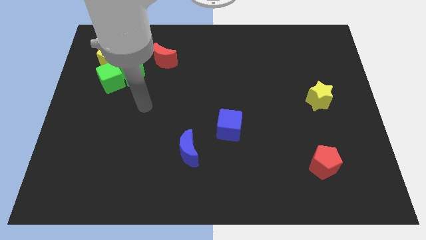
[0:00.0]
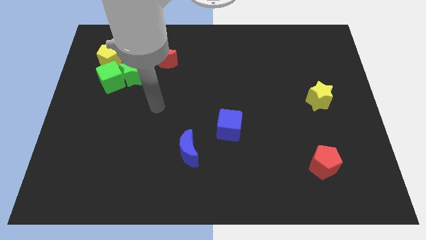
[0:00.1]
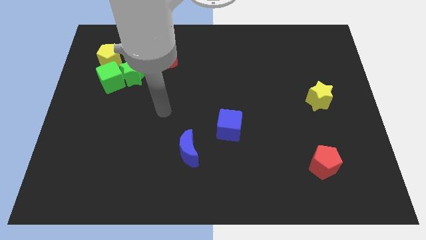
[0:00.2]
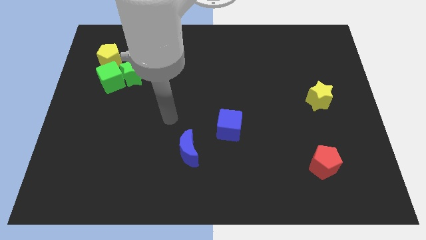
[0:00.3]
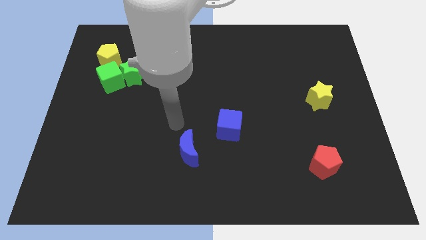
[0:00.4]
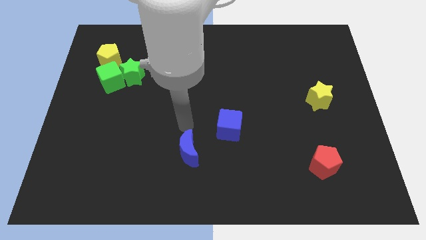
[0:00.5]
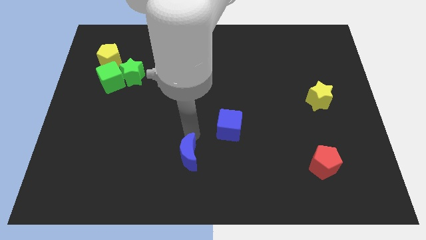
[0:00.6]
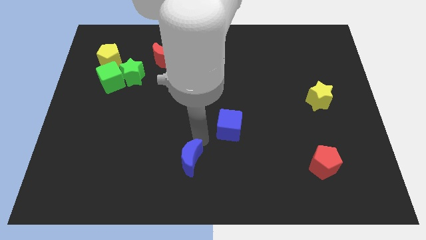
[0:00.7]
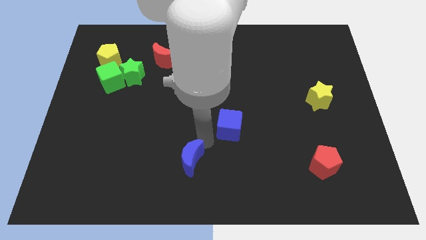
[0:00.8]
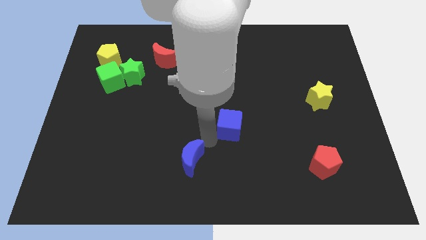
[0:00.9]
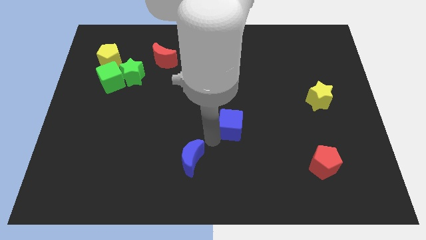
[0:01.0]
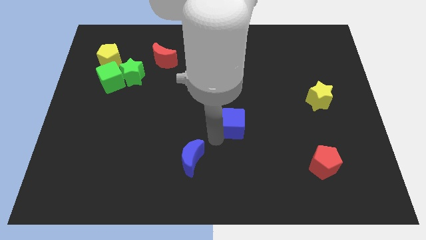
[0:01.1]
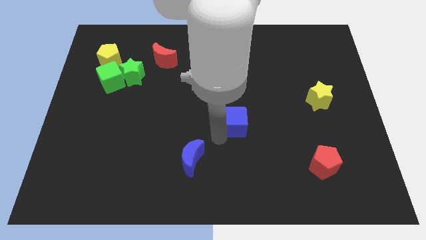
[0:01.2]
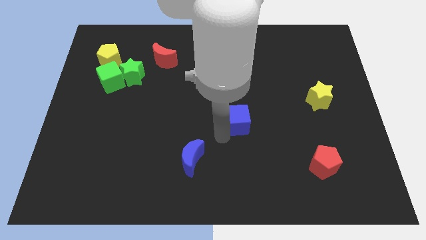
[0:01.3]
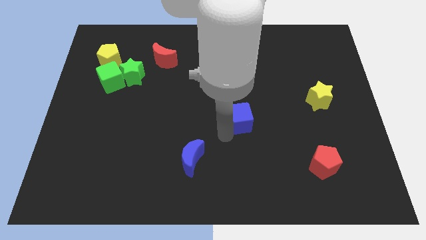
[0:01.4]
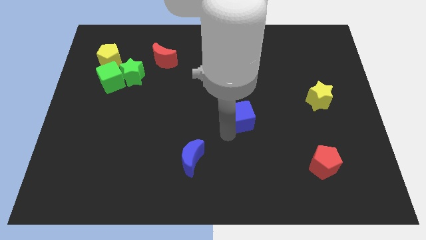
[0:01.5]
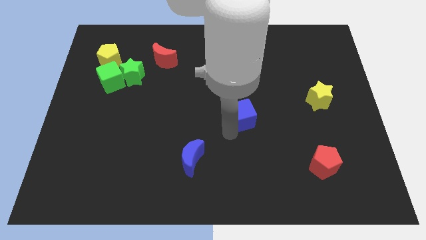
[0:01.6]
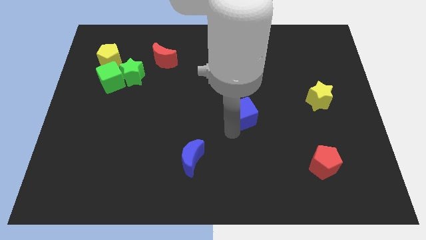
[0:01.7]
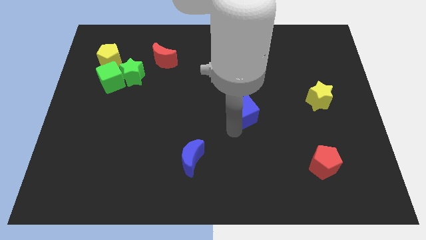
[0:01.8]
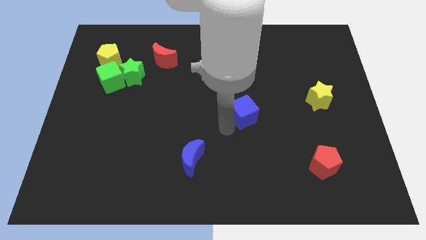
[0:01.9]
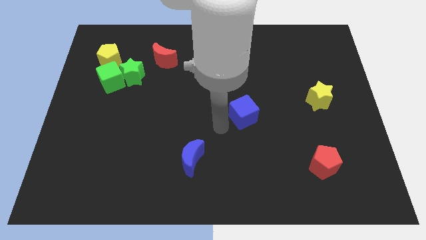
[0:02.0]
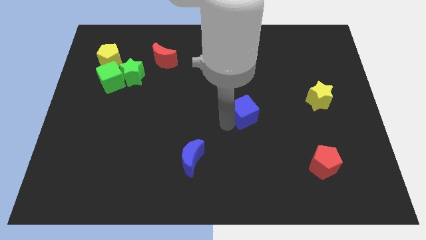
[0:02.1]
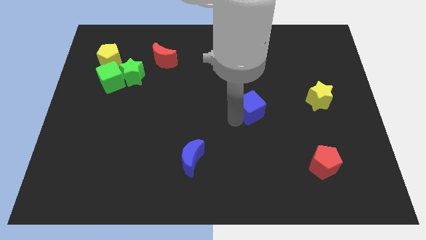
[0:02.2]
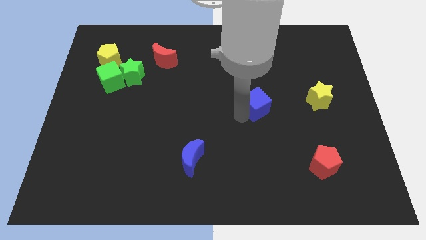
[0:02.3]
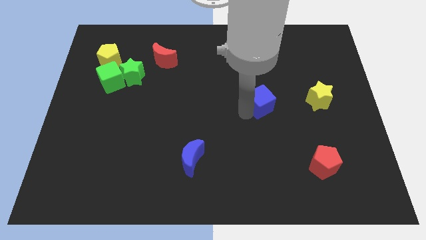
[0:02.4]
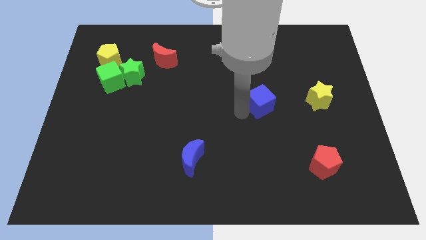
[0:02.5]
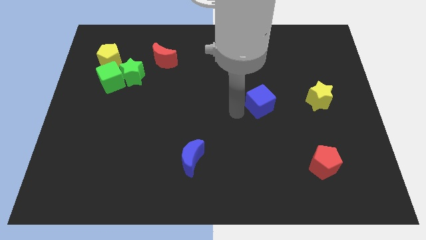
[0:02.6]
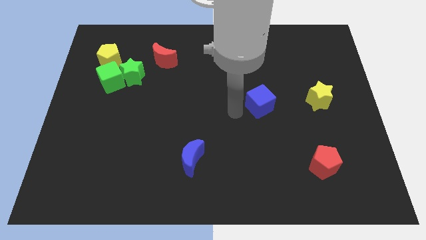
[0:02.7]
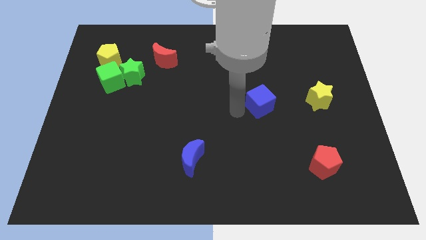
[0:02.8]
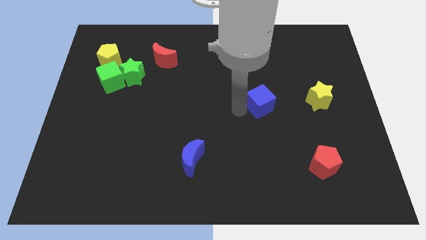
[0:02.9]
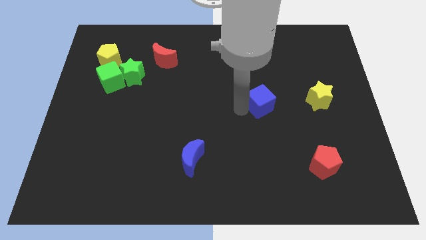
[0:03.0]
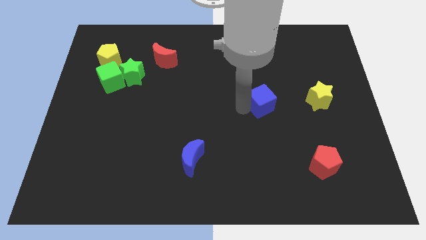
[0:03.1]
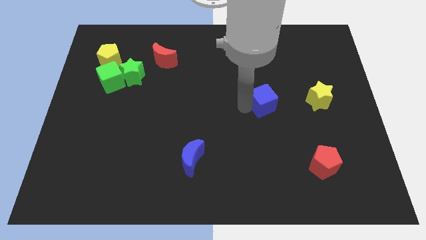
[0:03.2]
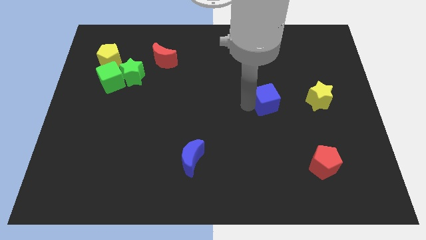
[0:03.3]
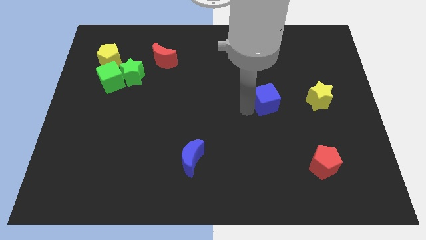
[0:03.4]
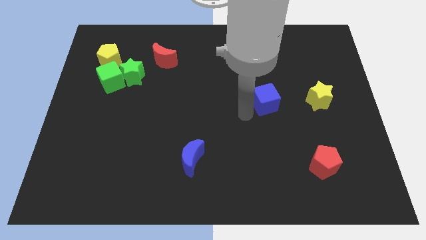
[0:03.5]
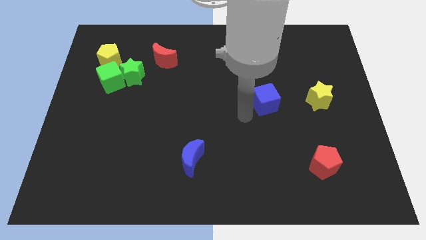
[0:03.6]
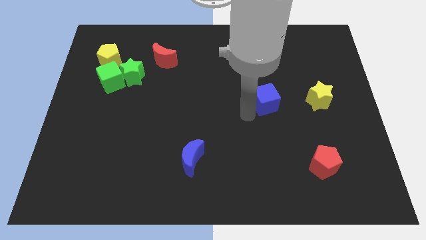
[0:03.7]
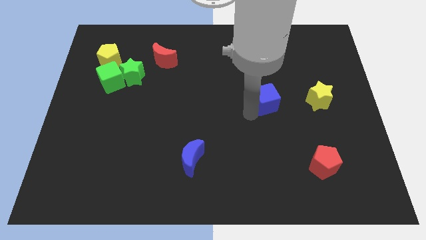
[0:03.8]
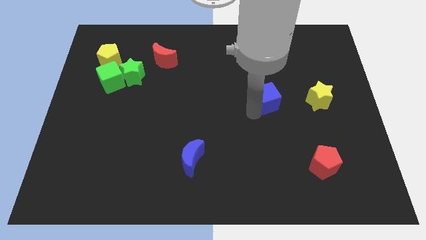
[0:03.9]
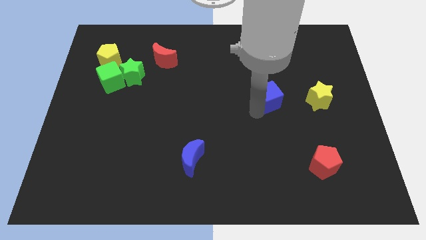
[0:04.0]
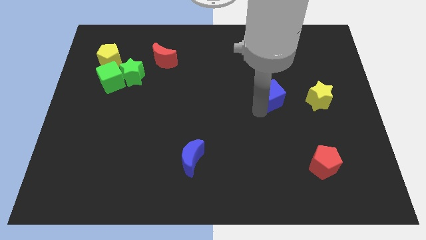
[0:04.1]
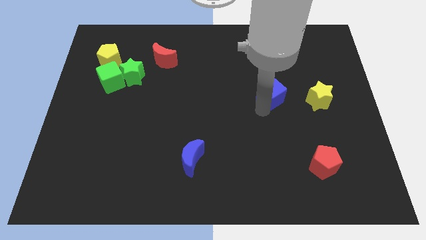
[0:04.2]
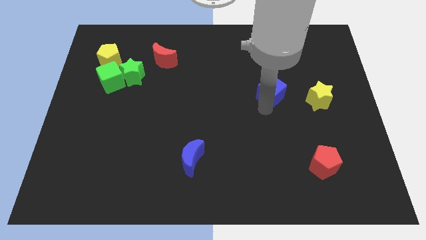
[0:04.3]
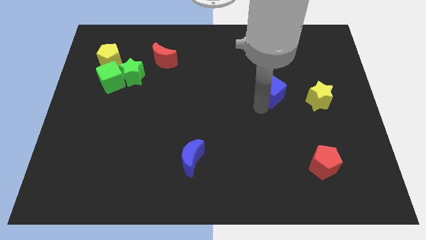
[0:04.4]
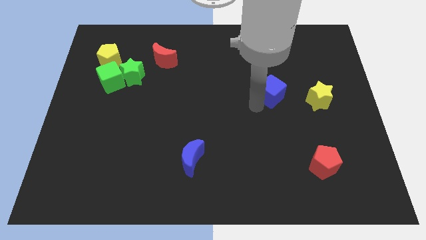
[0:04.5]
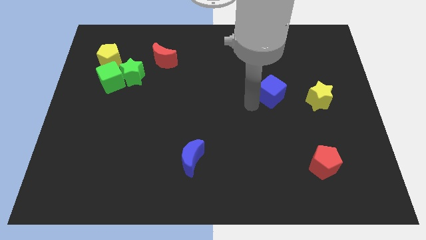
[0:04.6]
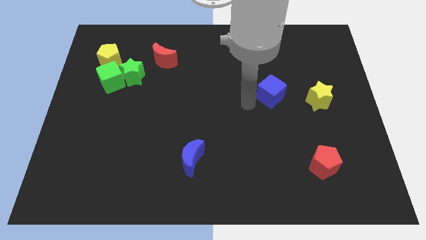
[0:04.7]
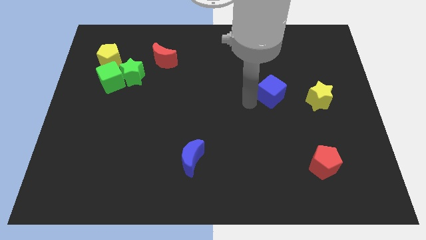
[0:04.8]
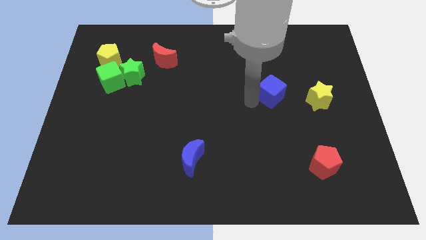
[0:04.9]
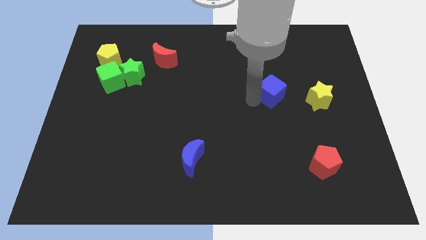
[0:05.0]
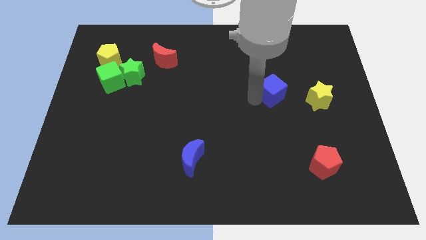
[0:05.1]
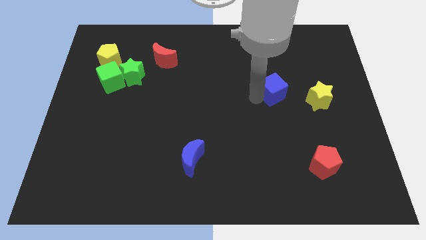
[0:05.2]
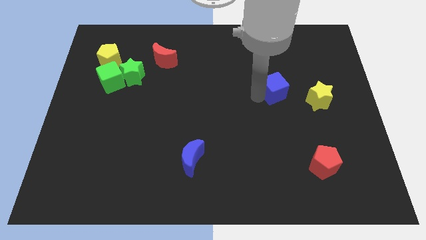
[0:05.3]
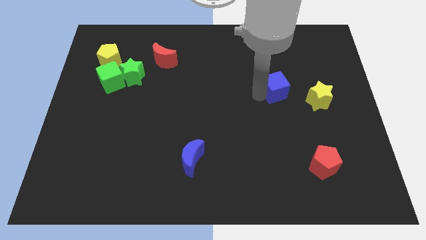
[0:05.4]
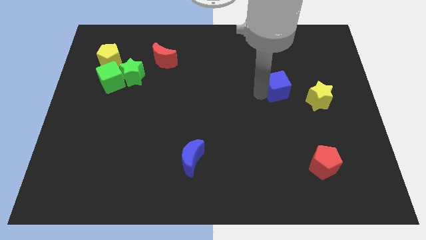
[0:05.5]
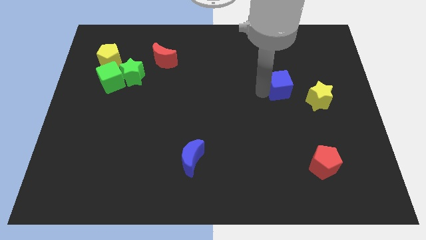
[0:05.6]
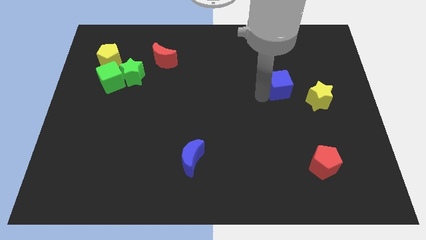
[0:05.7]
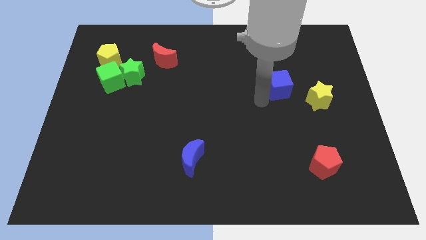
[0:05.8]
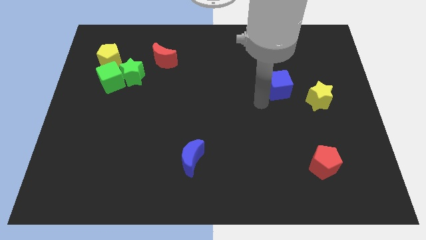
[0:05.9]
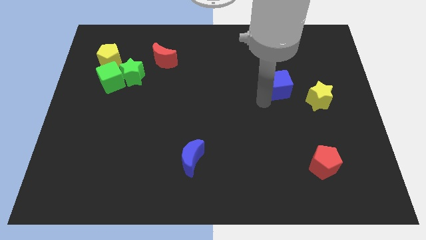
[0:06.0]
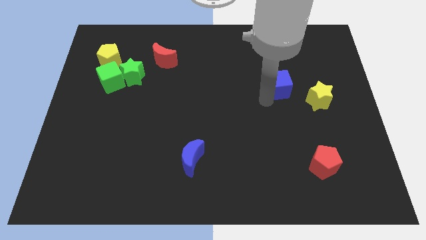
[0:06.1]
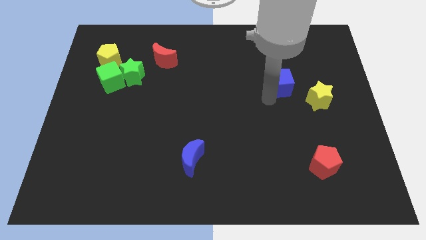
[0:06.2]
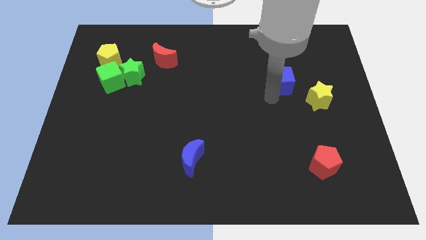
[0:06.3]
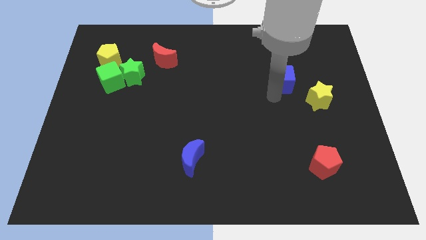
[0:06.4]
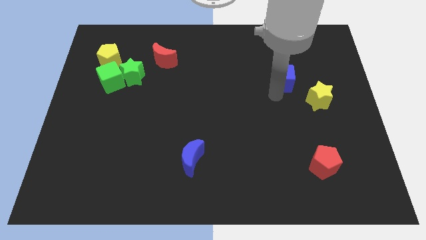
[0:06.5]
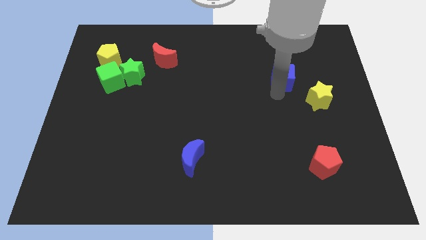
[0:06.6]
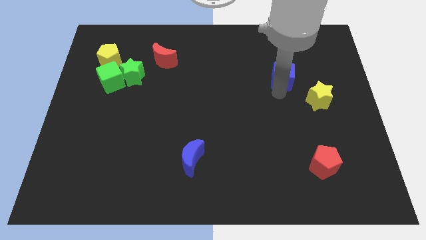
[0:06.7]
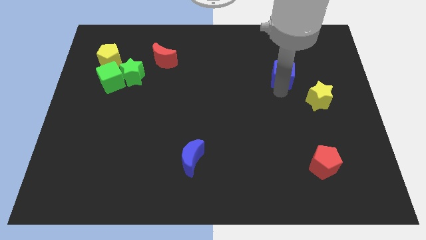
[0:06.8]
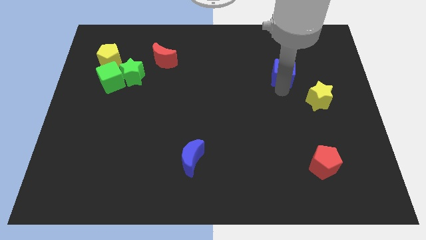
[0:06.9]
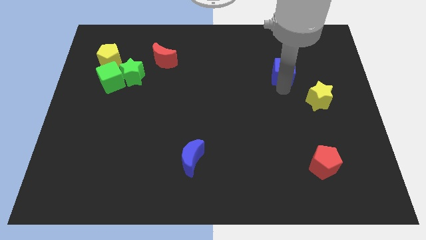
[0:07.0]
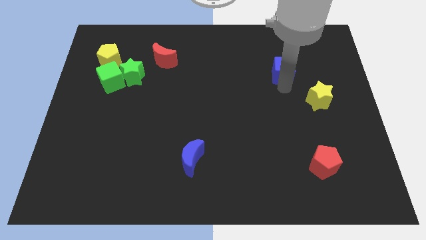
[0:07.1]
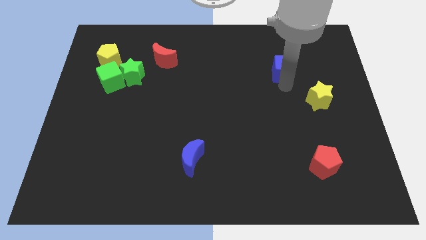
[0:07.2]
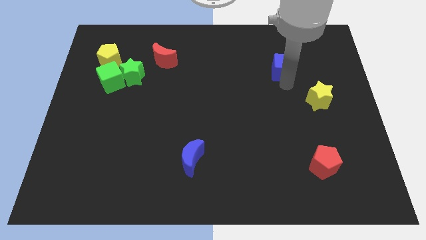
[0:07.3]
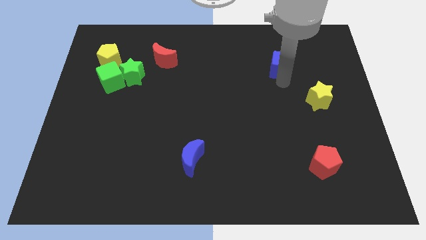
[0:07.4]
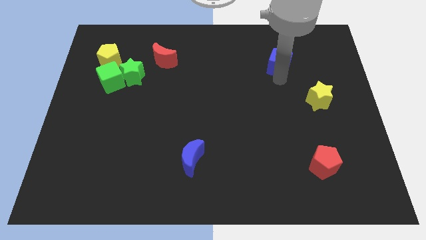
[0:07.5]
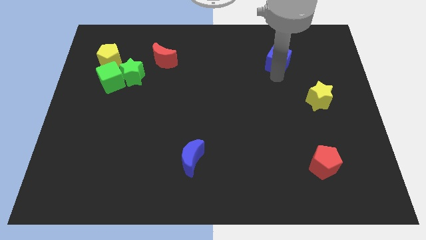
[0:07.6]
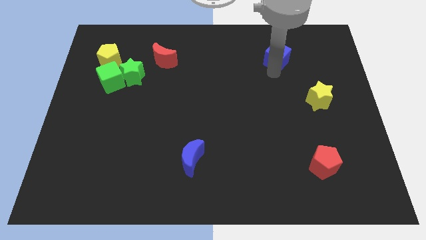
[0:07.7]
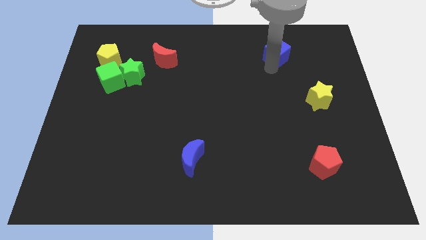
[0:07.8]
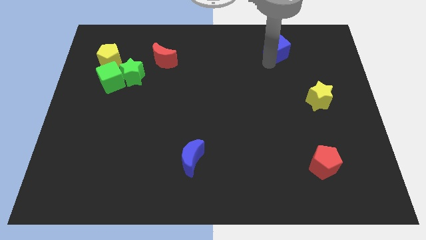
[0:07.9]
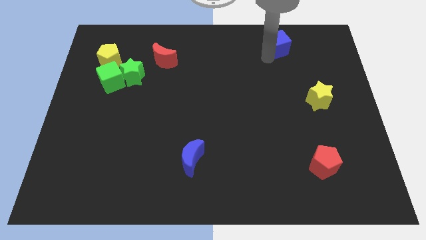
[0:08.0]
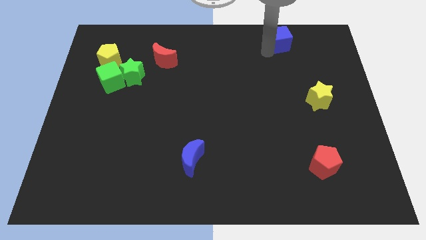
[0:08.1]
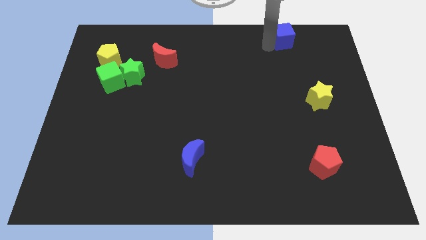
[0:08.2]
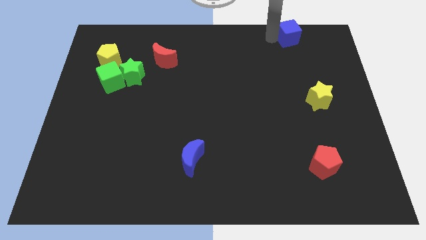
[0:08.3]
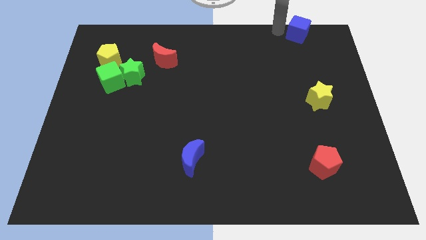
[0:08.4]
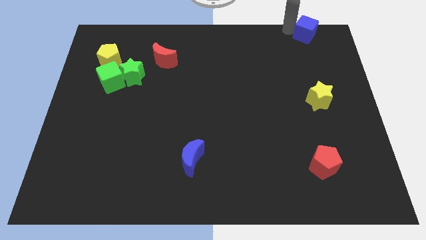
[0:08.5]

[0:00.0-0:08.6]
push the blue cube to the top right of the board
